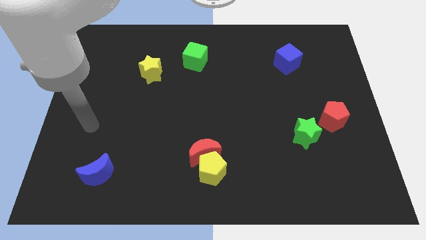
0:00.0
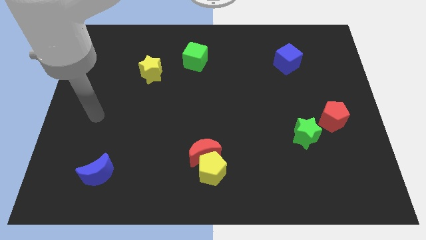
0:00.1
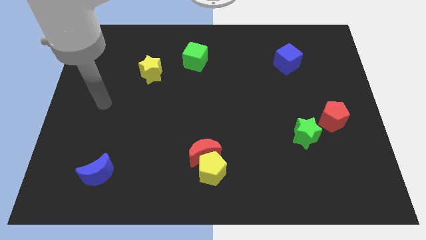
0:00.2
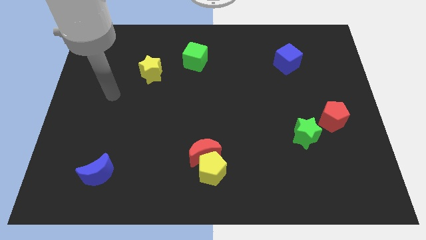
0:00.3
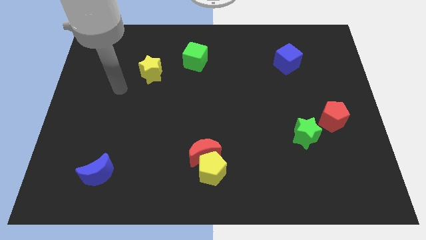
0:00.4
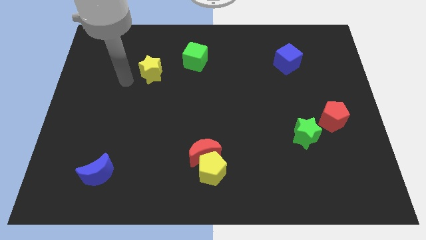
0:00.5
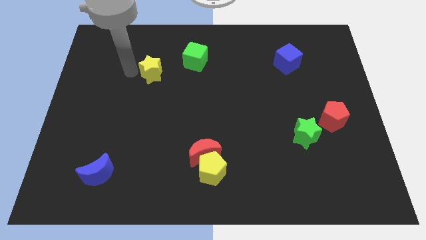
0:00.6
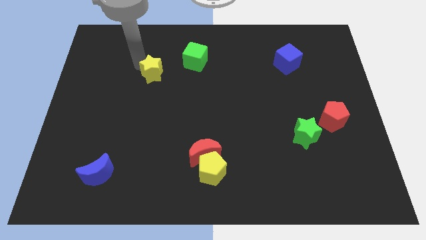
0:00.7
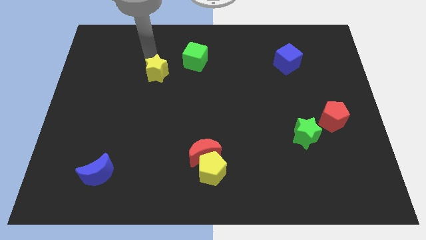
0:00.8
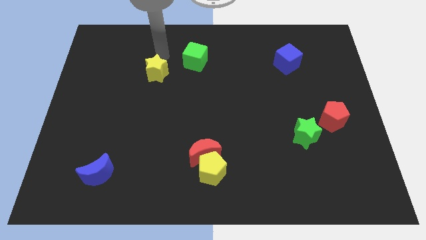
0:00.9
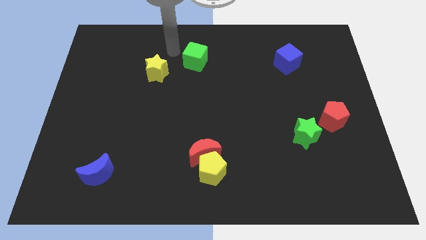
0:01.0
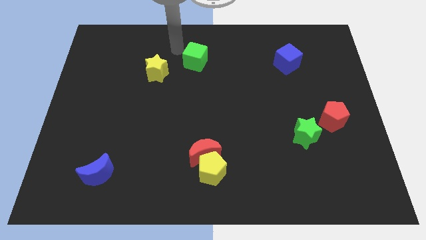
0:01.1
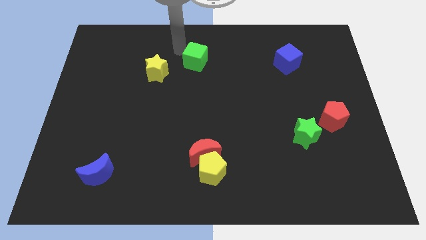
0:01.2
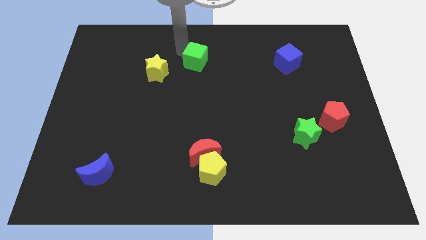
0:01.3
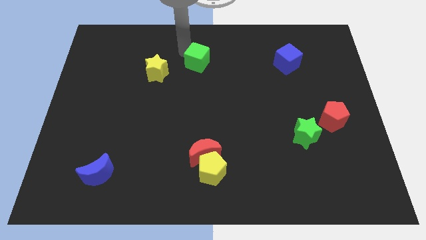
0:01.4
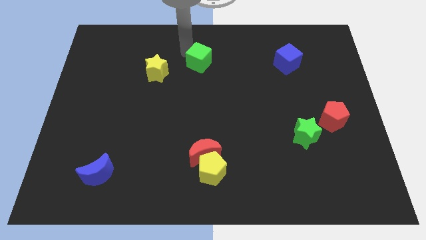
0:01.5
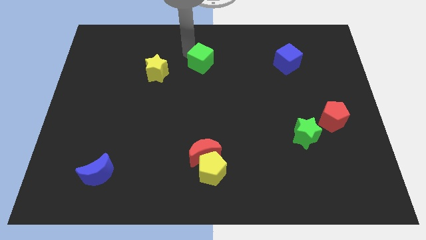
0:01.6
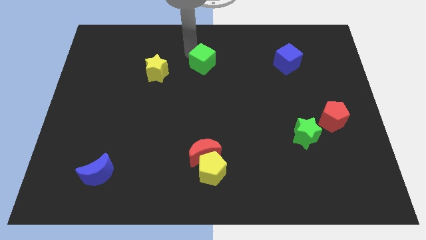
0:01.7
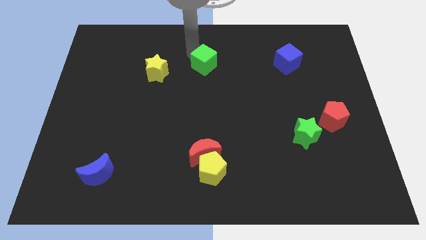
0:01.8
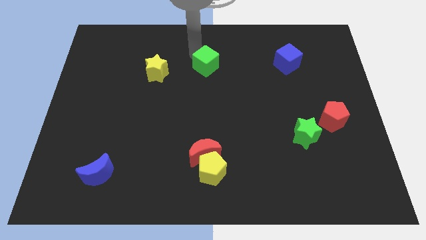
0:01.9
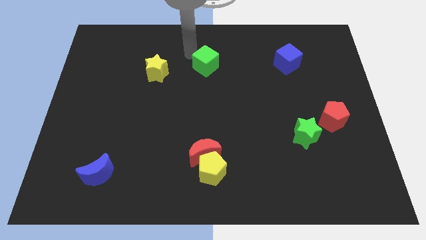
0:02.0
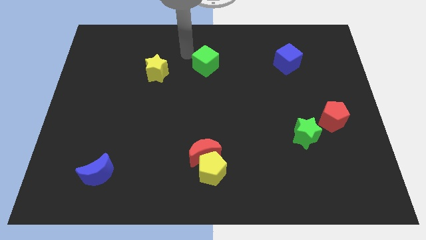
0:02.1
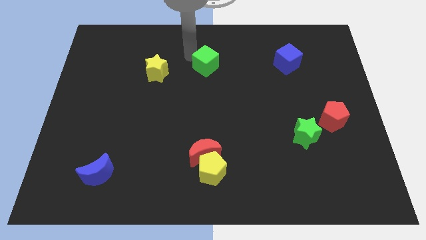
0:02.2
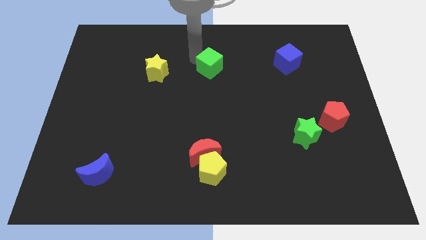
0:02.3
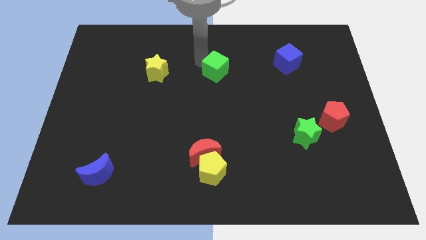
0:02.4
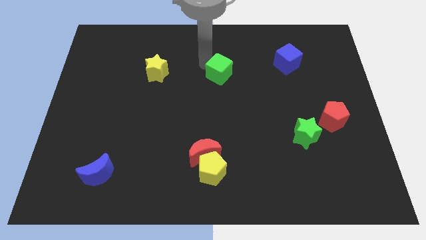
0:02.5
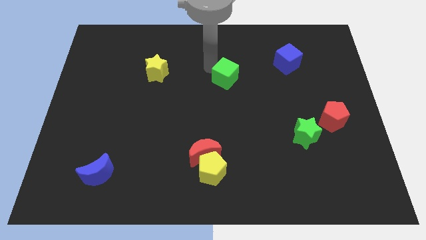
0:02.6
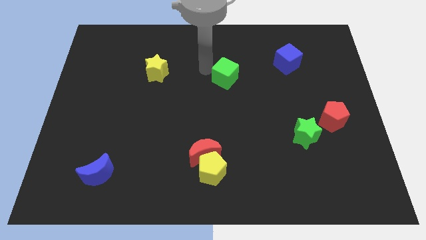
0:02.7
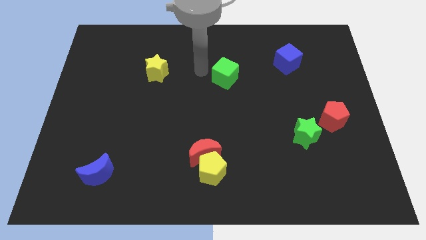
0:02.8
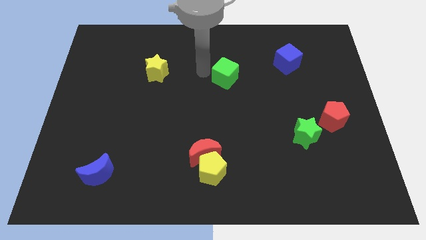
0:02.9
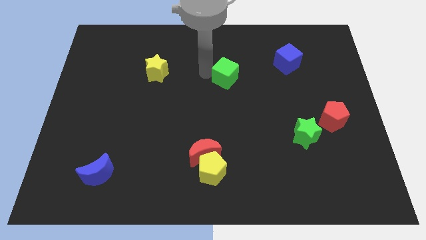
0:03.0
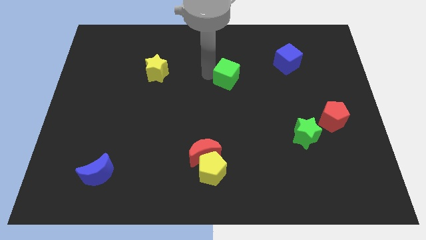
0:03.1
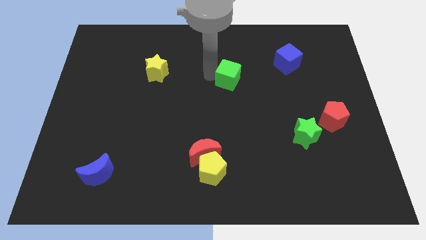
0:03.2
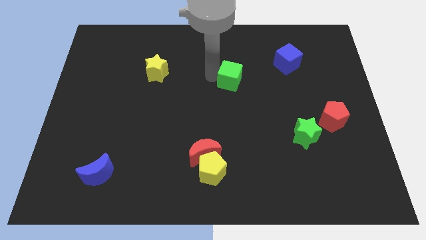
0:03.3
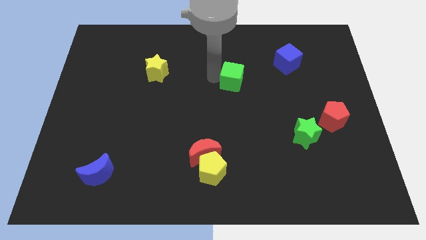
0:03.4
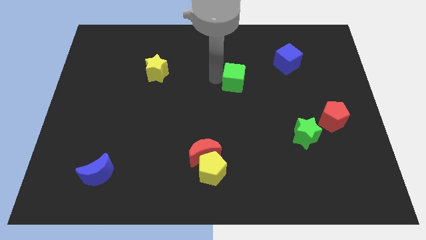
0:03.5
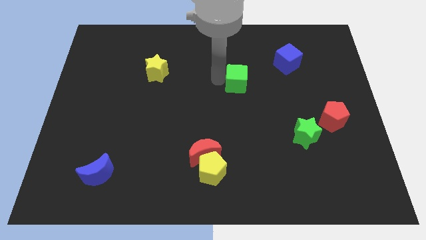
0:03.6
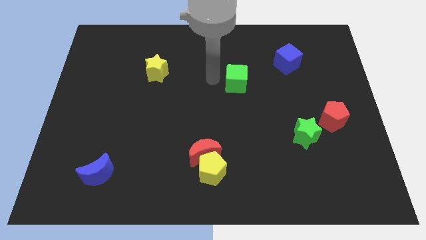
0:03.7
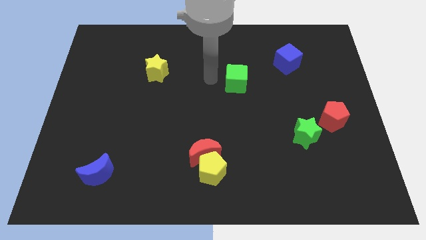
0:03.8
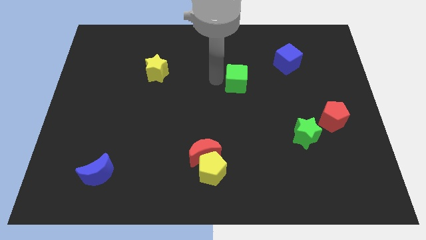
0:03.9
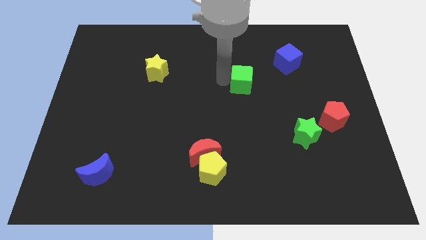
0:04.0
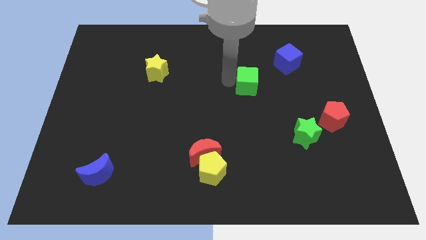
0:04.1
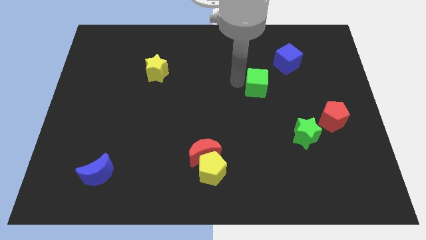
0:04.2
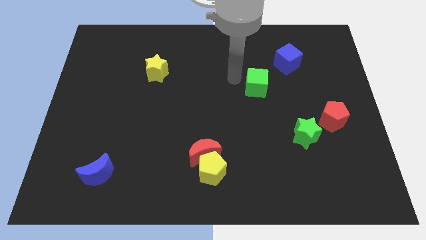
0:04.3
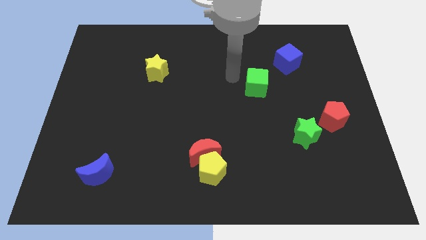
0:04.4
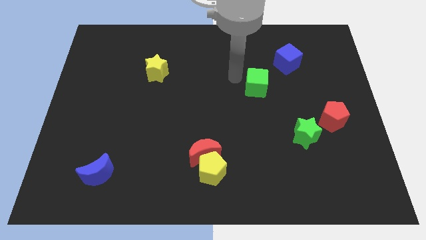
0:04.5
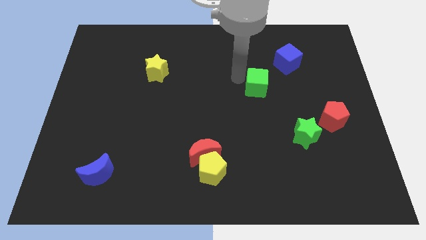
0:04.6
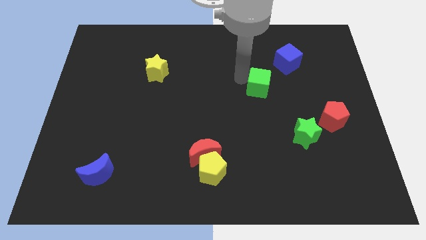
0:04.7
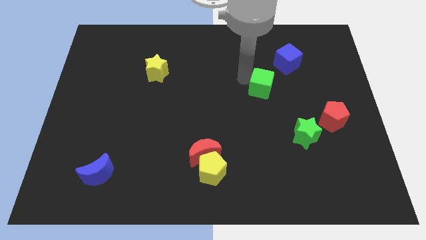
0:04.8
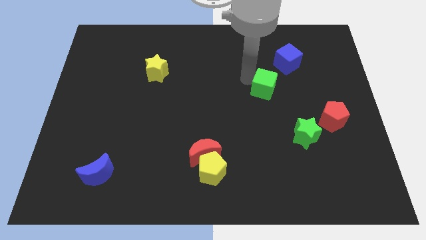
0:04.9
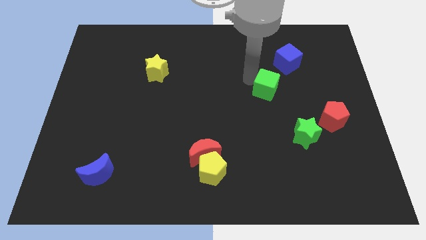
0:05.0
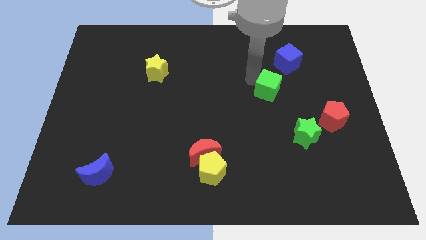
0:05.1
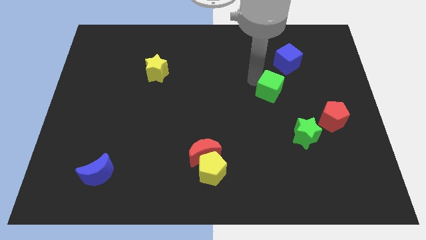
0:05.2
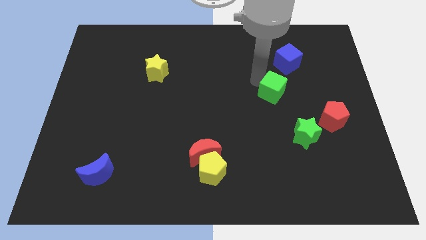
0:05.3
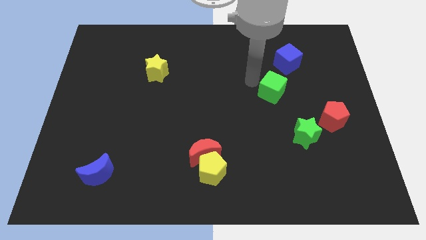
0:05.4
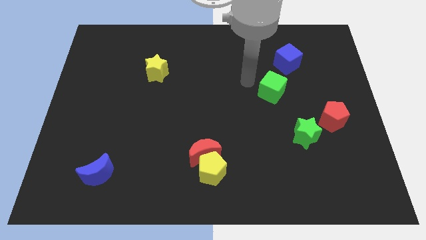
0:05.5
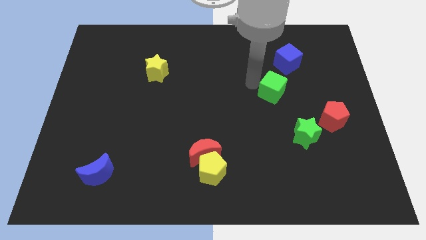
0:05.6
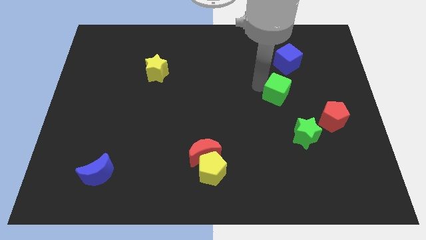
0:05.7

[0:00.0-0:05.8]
put the green cube to the top side of the green star

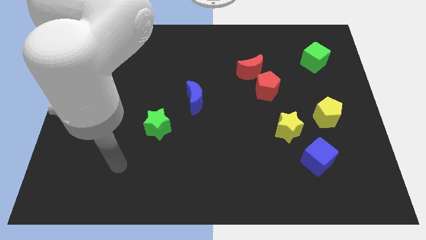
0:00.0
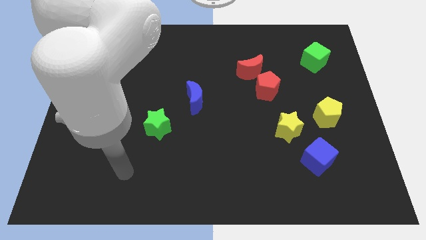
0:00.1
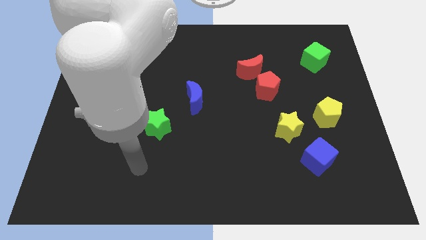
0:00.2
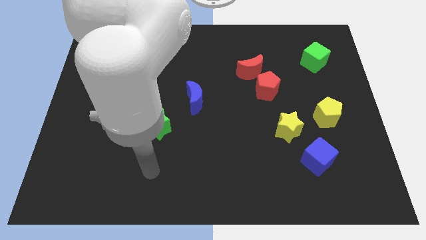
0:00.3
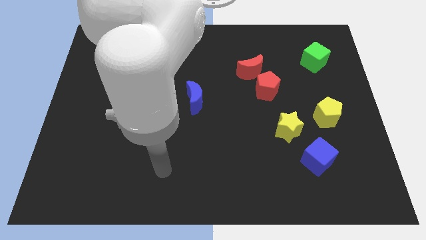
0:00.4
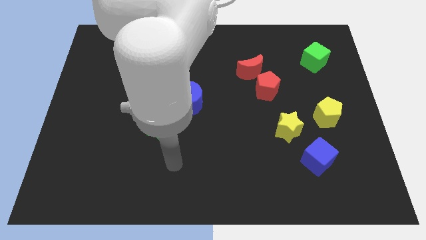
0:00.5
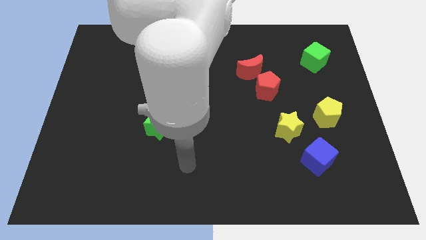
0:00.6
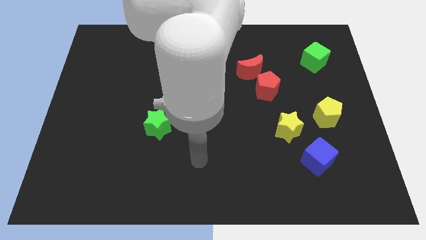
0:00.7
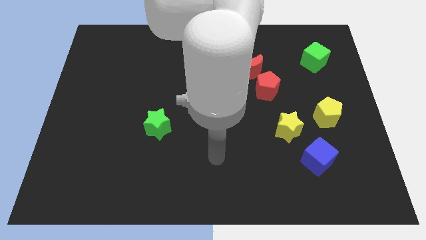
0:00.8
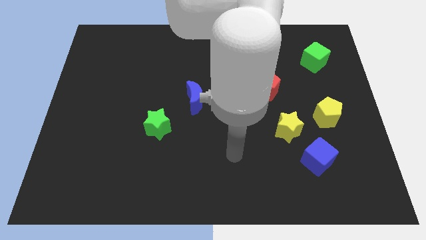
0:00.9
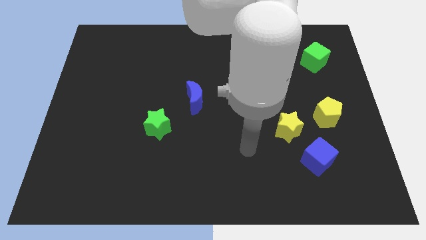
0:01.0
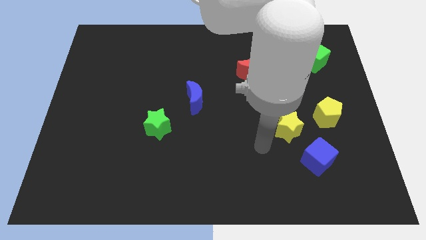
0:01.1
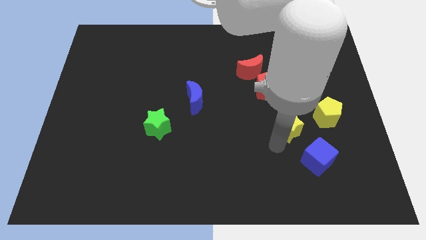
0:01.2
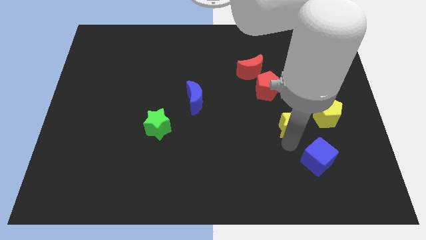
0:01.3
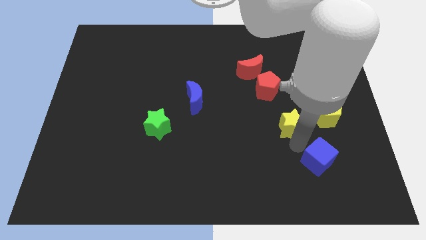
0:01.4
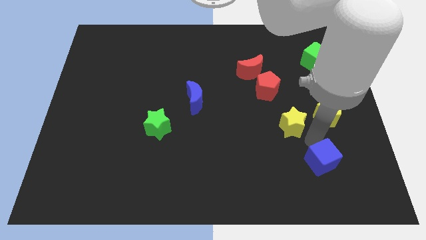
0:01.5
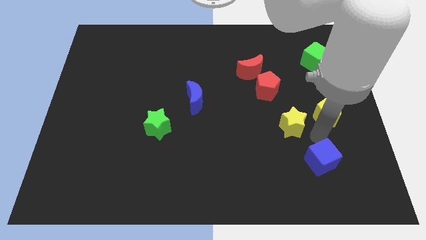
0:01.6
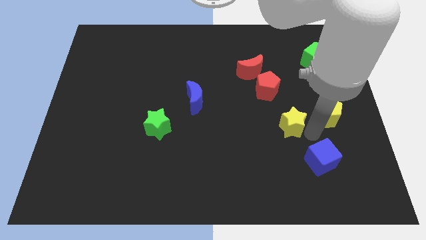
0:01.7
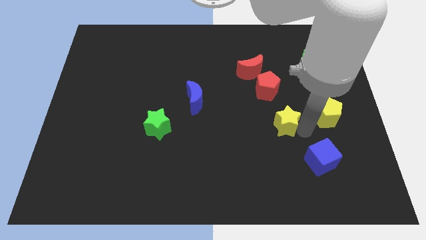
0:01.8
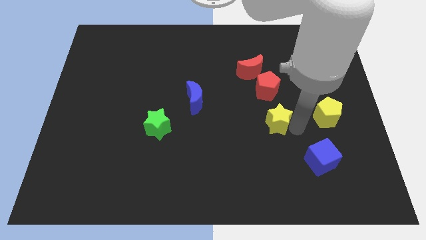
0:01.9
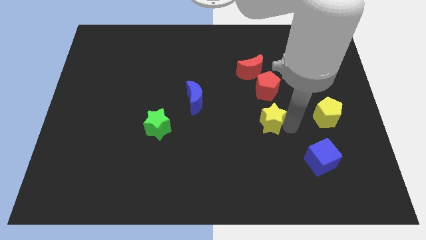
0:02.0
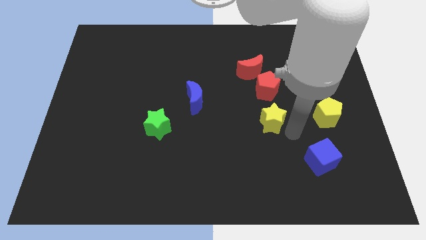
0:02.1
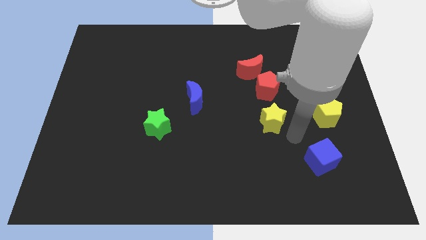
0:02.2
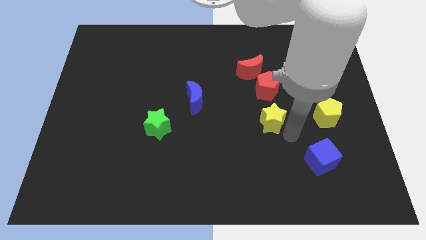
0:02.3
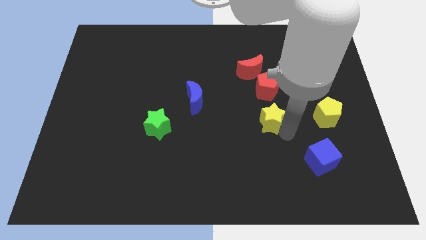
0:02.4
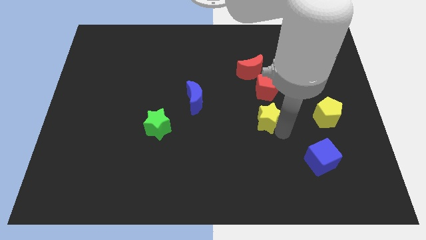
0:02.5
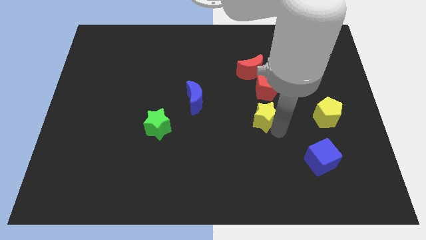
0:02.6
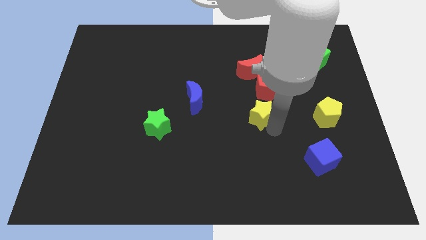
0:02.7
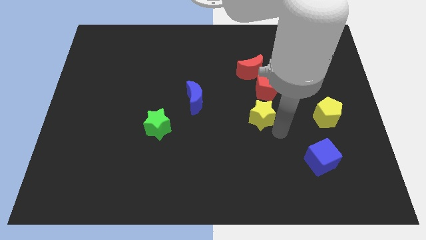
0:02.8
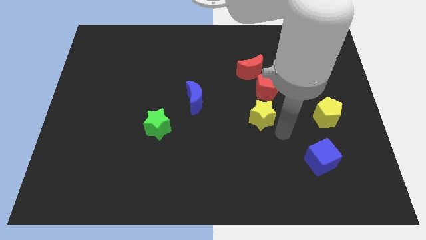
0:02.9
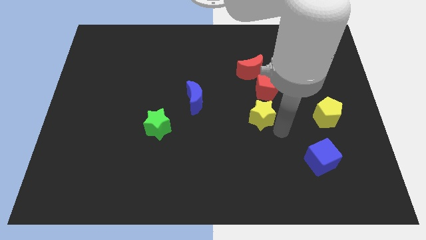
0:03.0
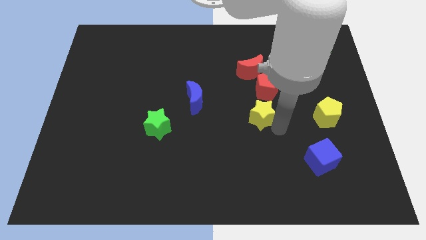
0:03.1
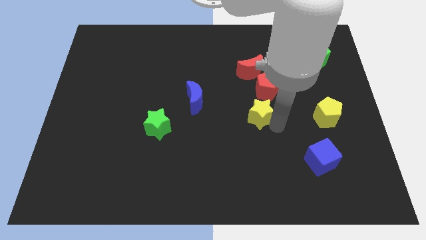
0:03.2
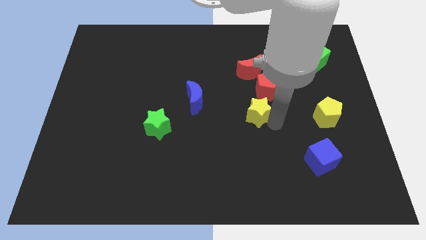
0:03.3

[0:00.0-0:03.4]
move the yellow star just right of the blue moon
